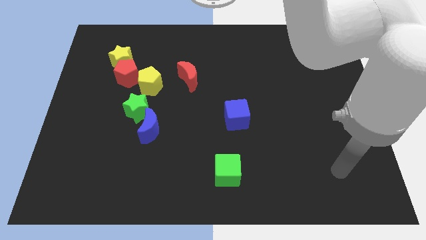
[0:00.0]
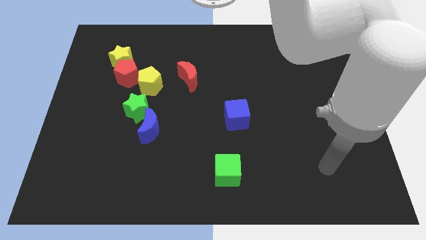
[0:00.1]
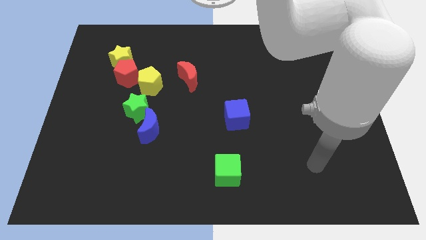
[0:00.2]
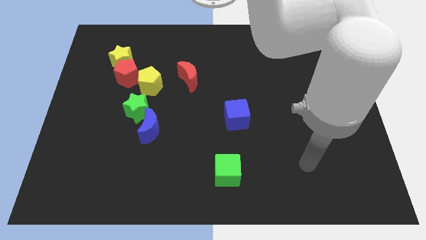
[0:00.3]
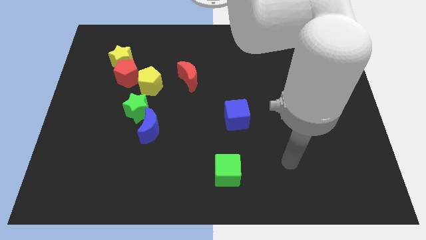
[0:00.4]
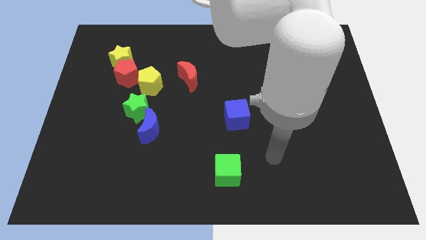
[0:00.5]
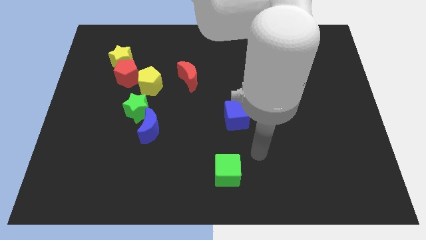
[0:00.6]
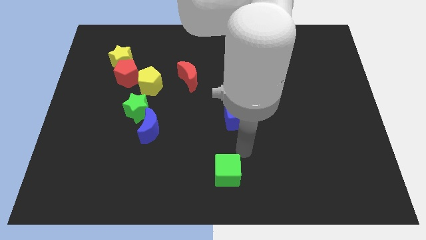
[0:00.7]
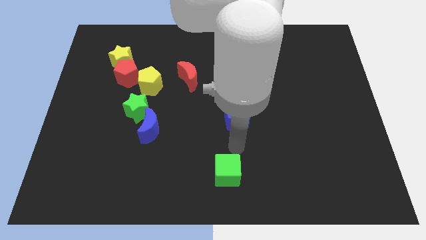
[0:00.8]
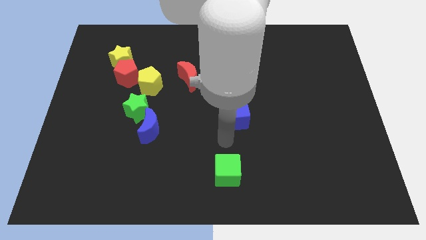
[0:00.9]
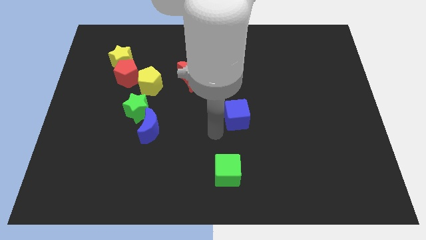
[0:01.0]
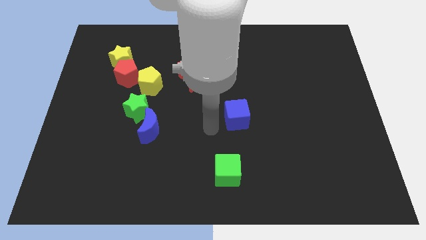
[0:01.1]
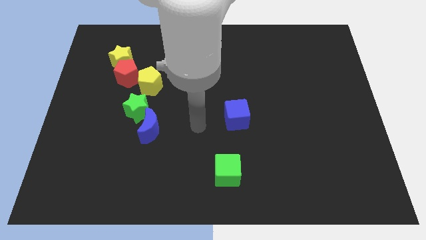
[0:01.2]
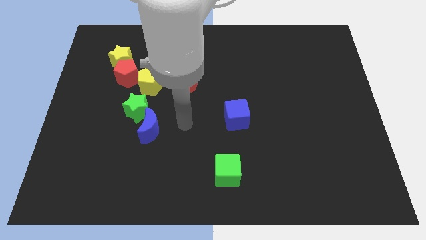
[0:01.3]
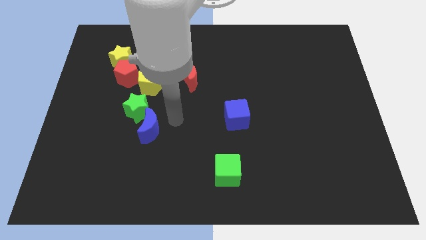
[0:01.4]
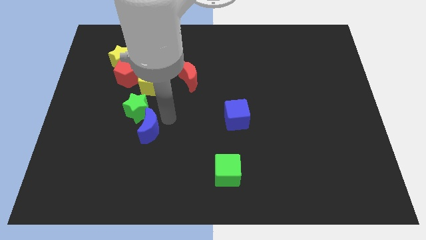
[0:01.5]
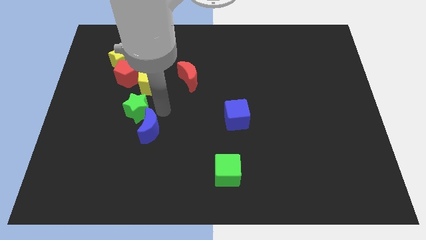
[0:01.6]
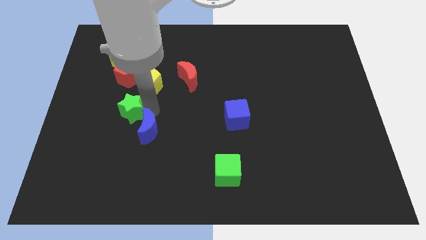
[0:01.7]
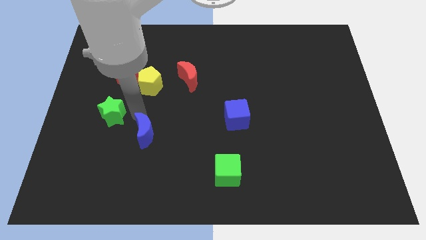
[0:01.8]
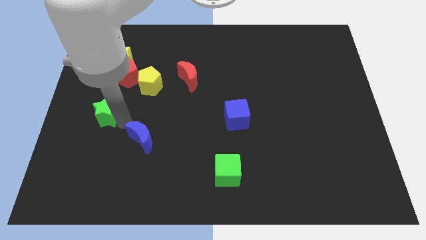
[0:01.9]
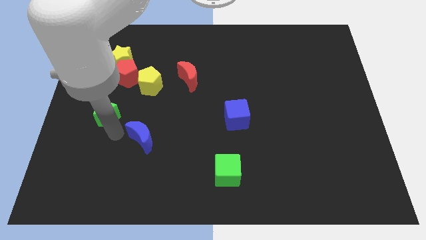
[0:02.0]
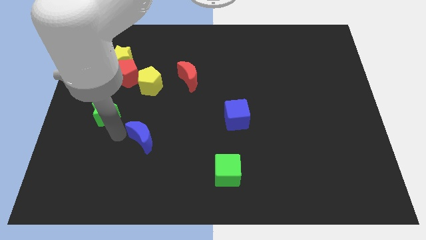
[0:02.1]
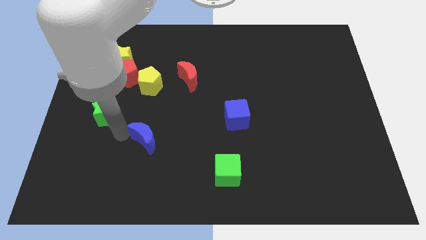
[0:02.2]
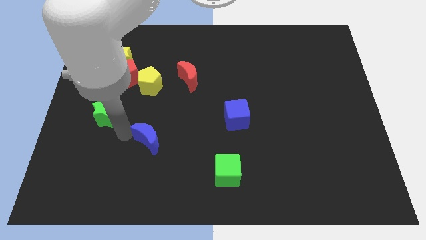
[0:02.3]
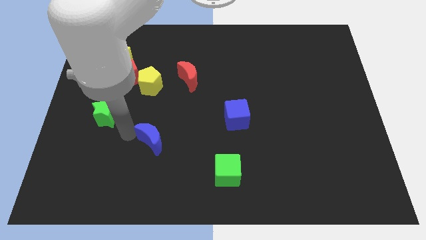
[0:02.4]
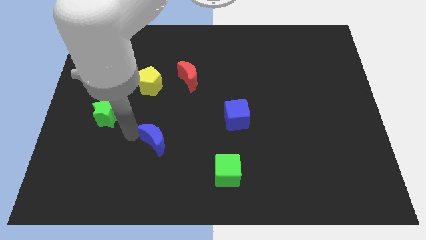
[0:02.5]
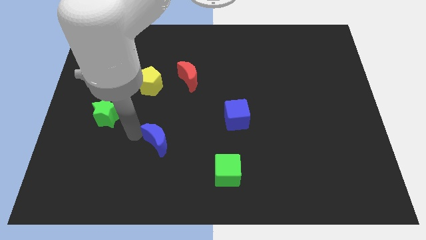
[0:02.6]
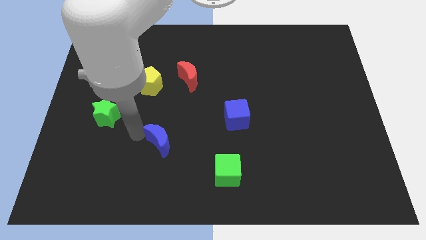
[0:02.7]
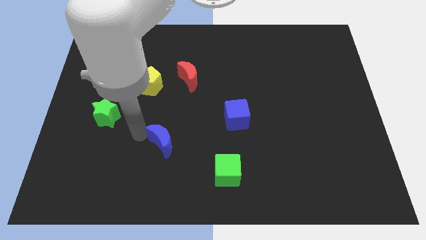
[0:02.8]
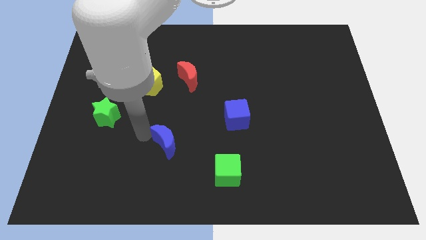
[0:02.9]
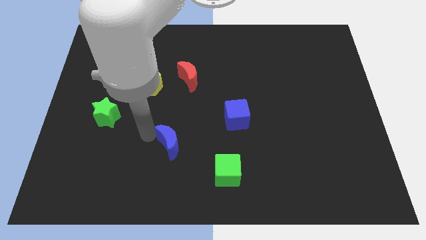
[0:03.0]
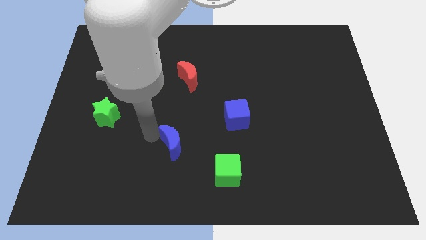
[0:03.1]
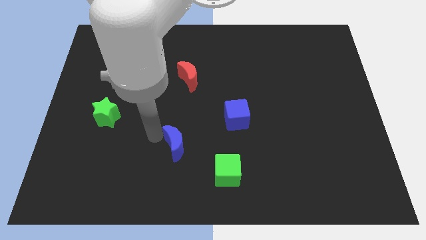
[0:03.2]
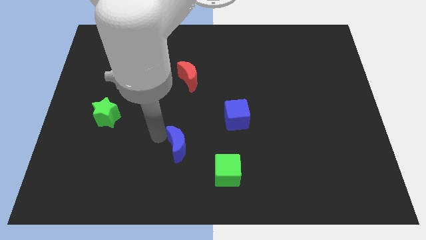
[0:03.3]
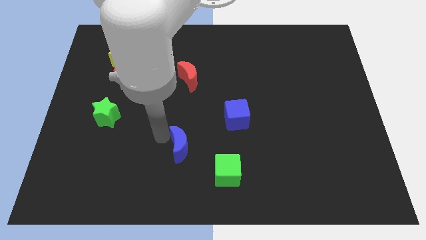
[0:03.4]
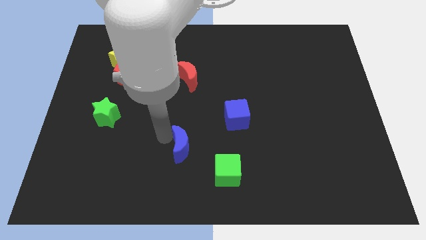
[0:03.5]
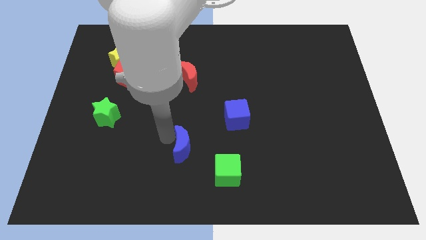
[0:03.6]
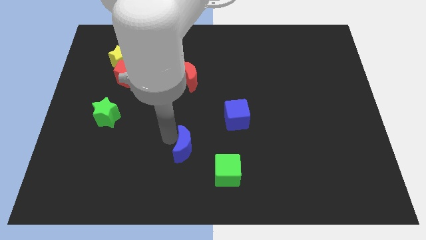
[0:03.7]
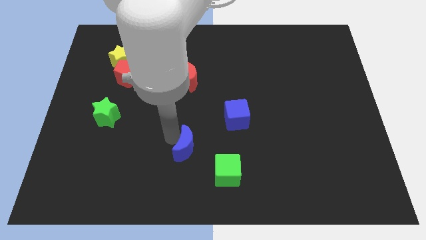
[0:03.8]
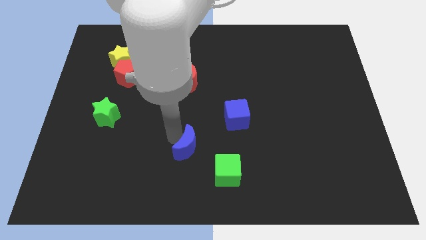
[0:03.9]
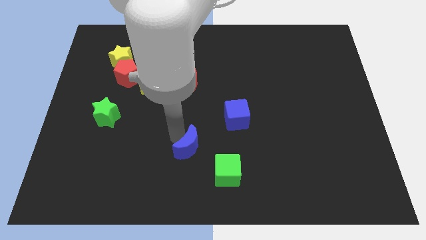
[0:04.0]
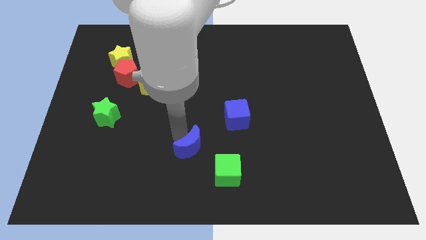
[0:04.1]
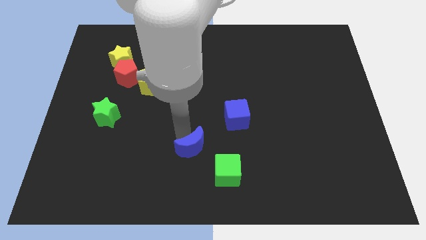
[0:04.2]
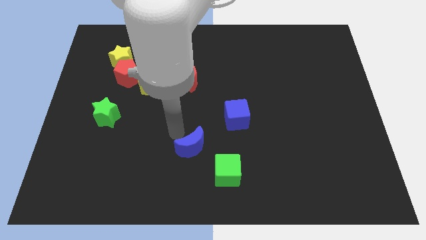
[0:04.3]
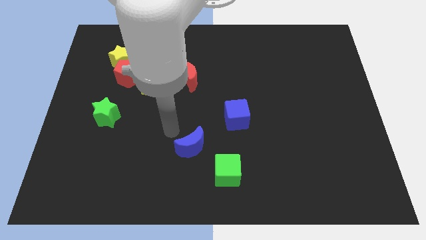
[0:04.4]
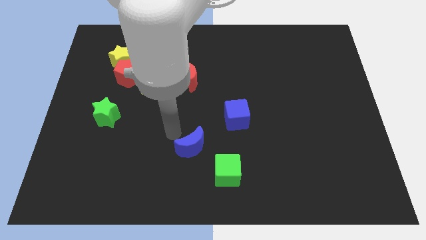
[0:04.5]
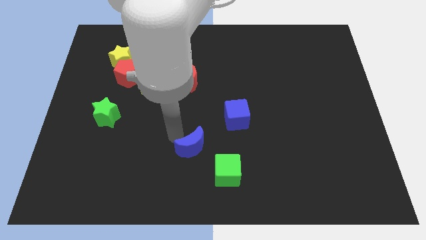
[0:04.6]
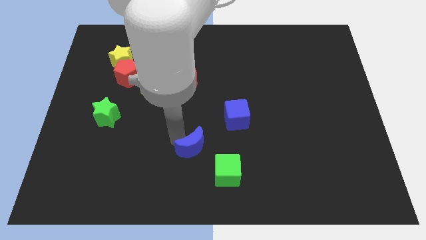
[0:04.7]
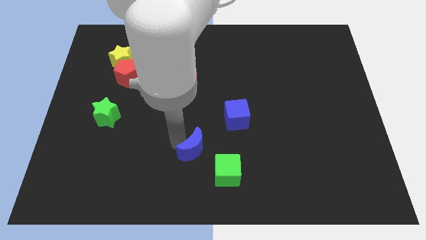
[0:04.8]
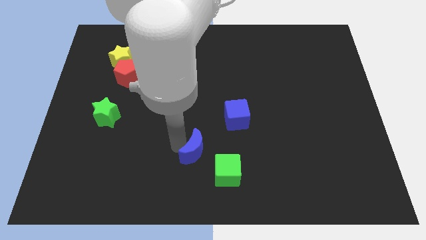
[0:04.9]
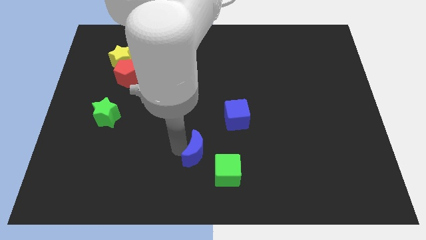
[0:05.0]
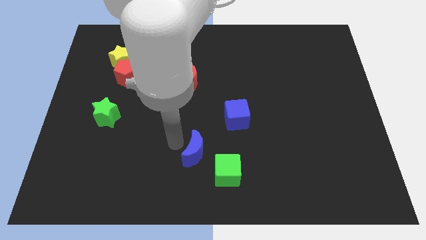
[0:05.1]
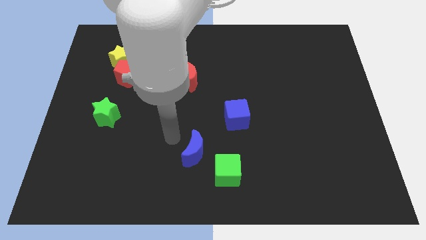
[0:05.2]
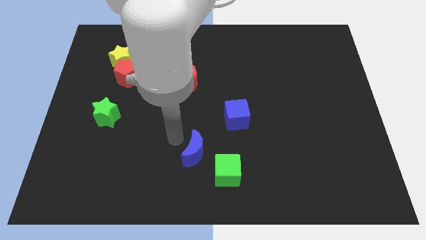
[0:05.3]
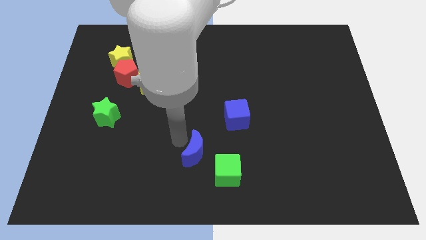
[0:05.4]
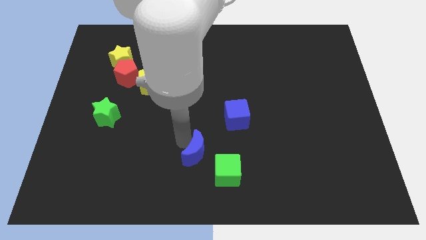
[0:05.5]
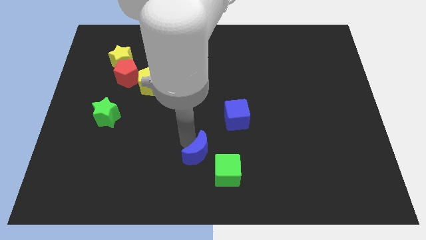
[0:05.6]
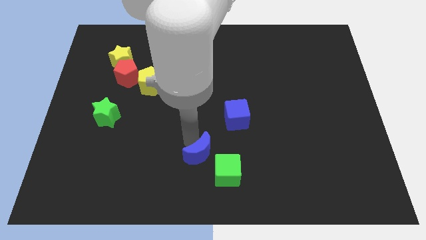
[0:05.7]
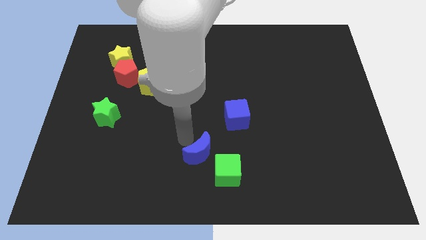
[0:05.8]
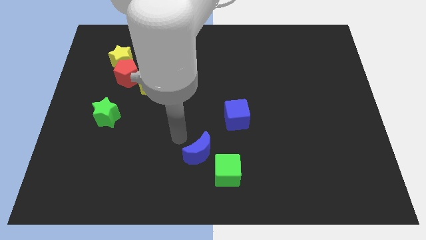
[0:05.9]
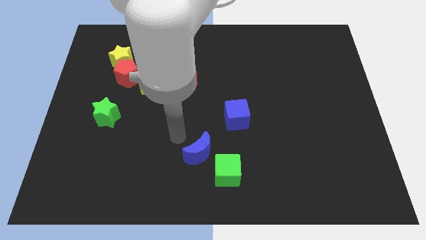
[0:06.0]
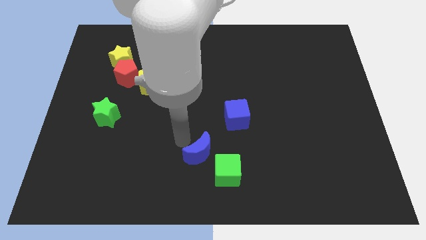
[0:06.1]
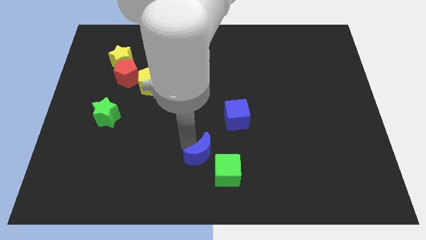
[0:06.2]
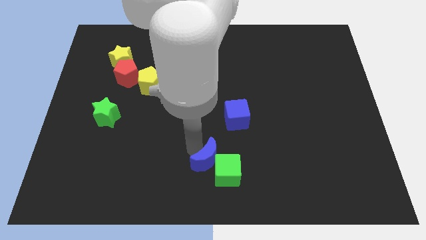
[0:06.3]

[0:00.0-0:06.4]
put the blue moon close to the green cube
